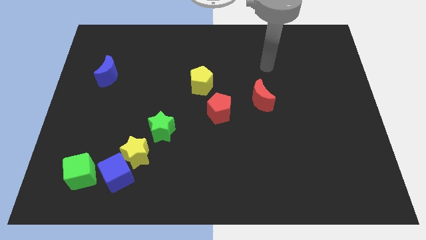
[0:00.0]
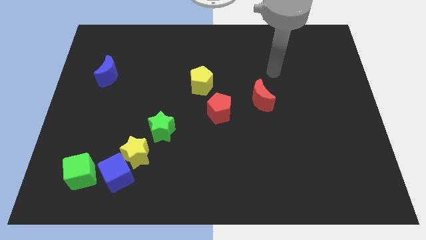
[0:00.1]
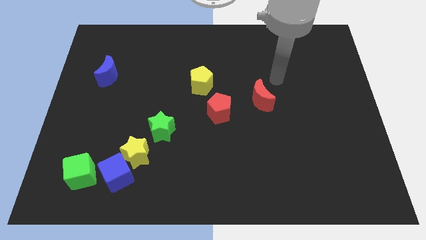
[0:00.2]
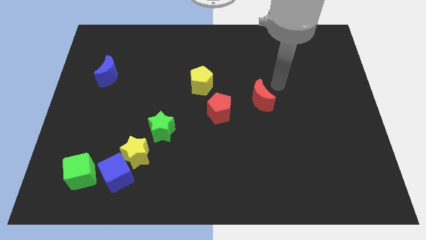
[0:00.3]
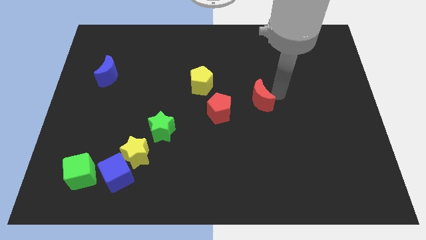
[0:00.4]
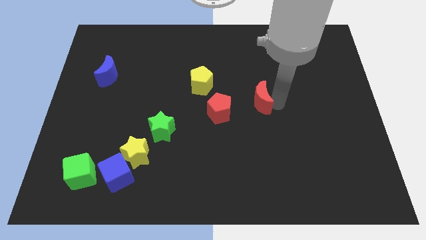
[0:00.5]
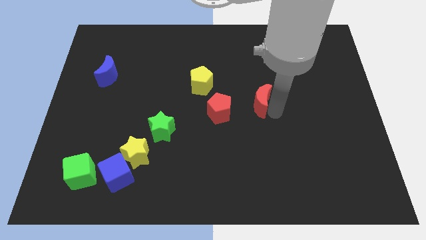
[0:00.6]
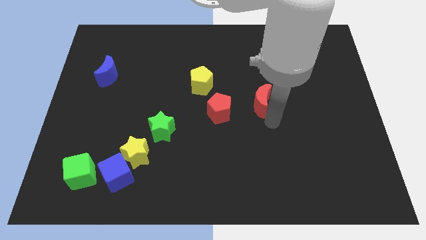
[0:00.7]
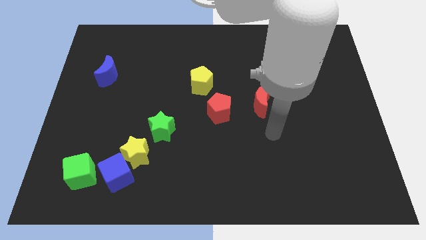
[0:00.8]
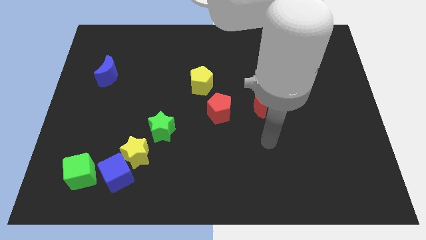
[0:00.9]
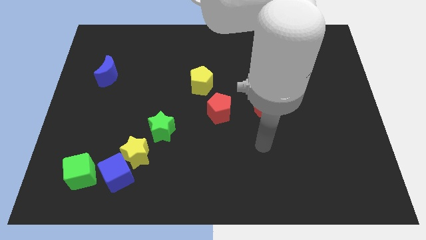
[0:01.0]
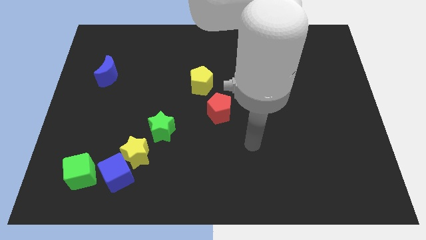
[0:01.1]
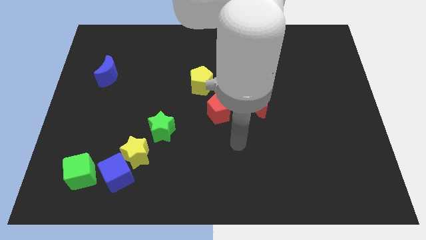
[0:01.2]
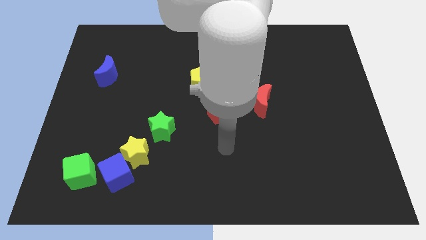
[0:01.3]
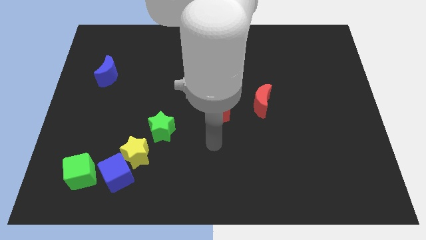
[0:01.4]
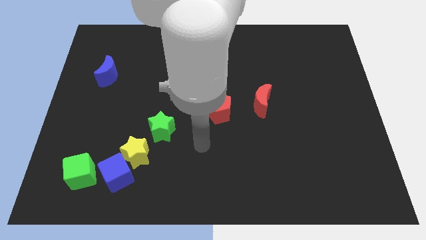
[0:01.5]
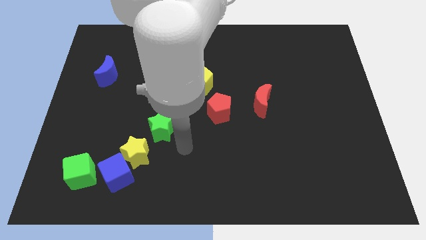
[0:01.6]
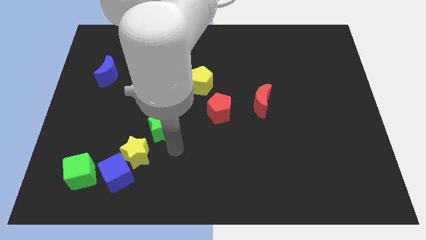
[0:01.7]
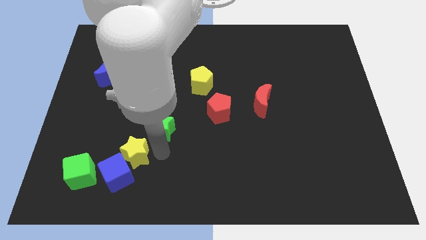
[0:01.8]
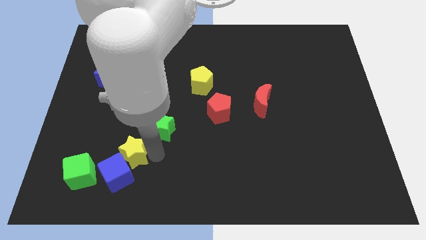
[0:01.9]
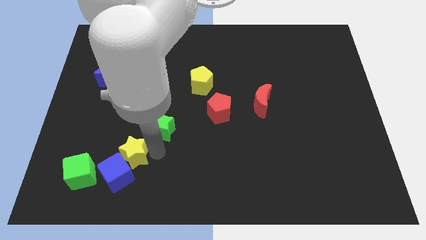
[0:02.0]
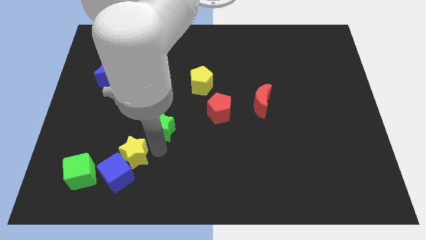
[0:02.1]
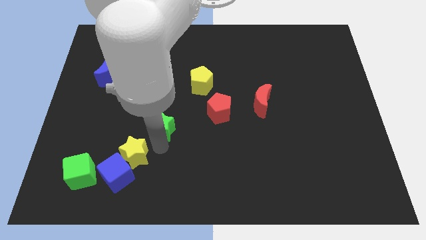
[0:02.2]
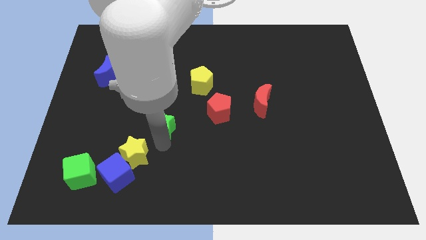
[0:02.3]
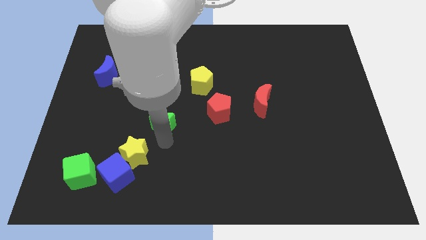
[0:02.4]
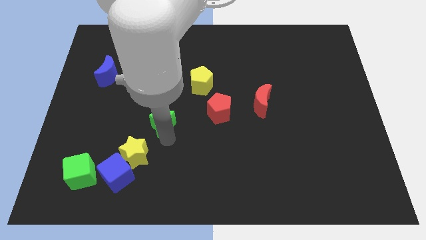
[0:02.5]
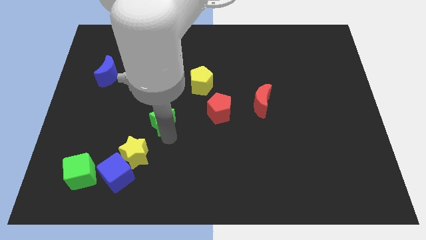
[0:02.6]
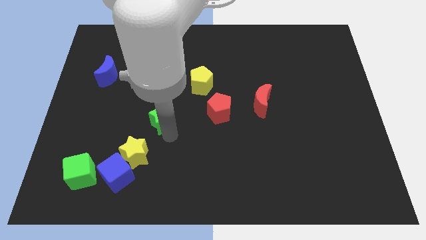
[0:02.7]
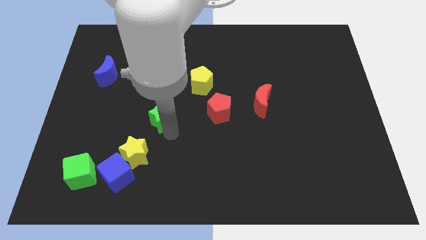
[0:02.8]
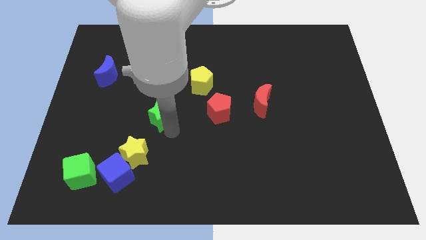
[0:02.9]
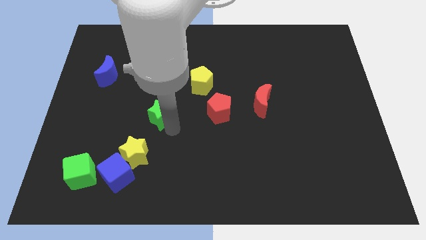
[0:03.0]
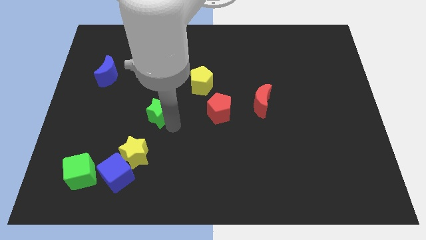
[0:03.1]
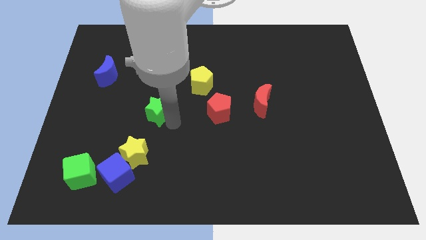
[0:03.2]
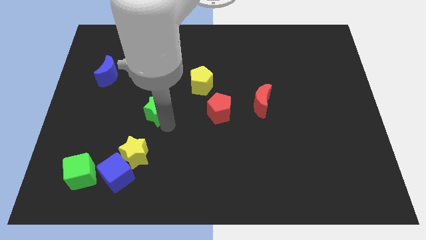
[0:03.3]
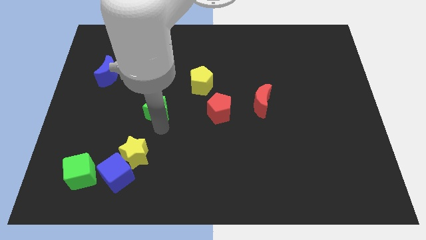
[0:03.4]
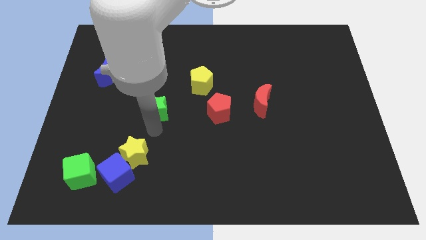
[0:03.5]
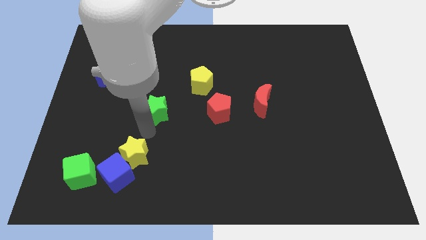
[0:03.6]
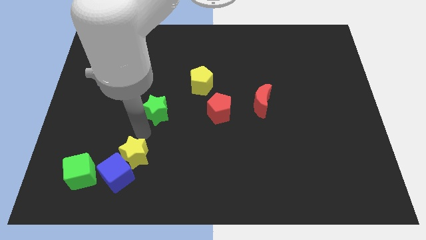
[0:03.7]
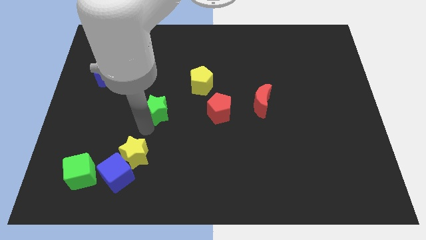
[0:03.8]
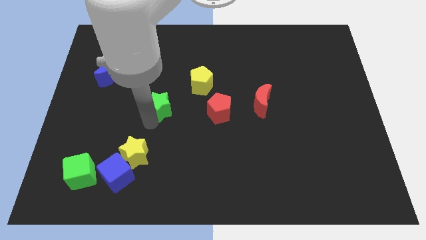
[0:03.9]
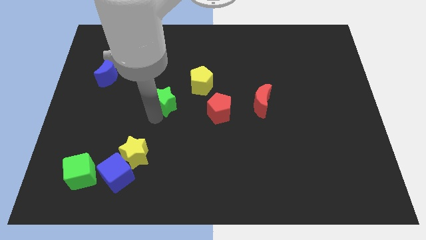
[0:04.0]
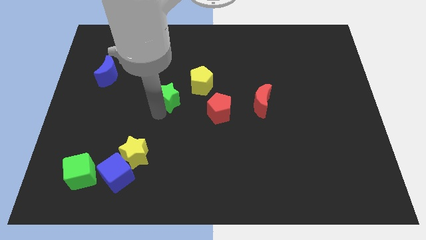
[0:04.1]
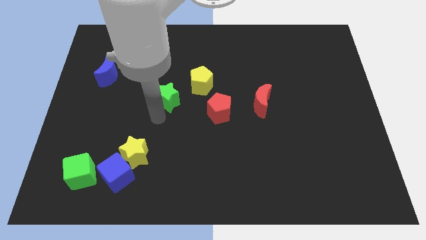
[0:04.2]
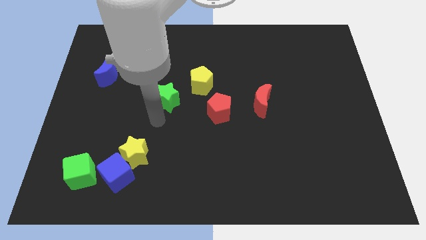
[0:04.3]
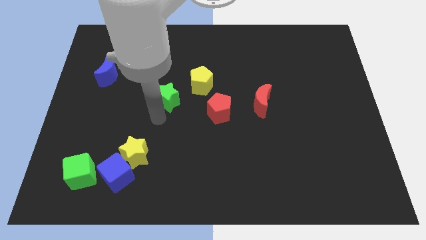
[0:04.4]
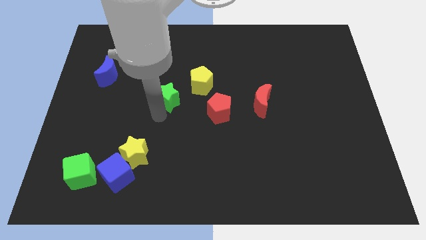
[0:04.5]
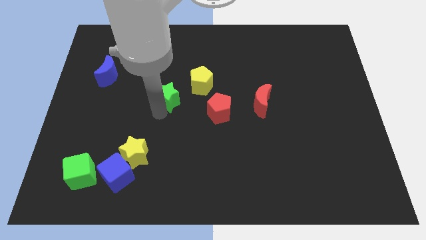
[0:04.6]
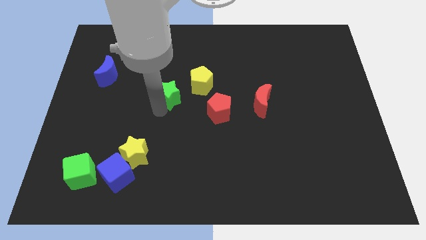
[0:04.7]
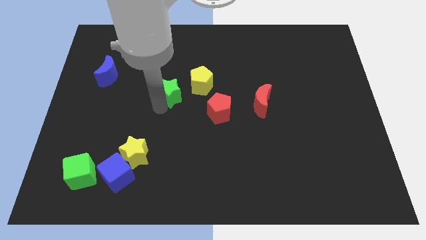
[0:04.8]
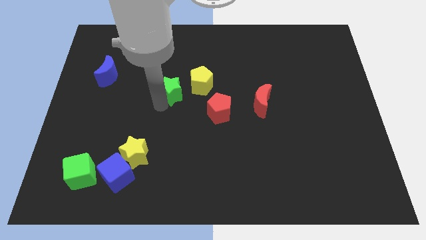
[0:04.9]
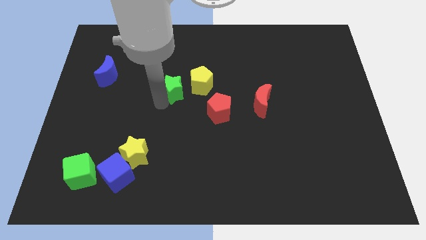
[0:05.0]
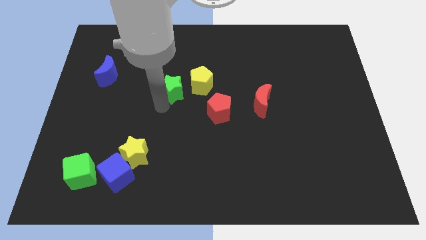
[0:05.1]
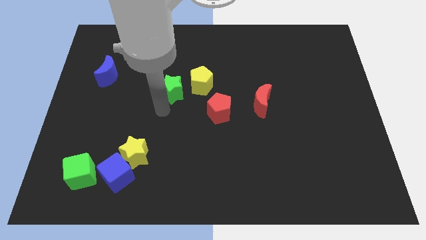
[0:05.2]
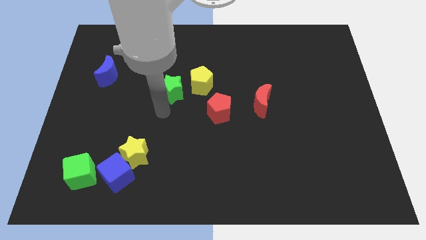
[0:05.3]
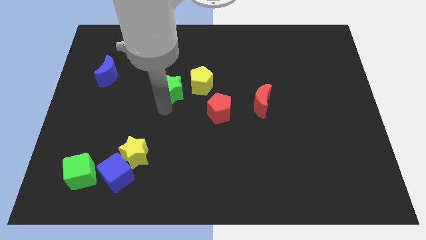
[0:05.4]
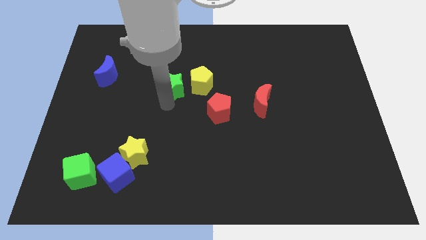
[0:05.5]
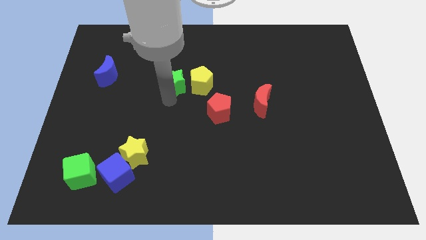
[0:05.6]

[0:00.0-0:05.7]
slide the green star diagonally up and to the left of the yellow pentagon

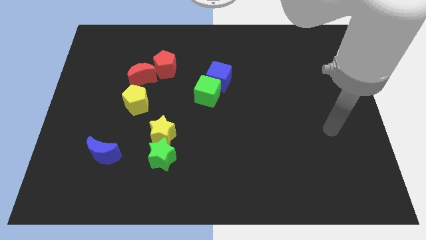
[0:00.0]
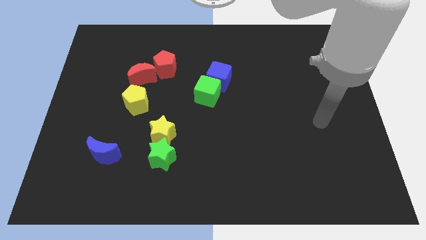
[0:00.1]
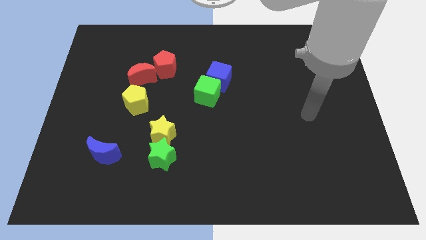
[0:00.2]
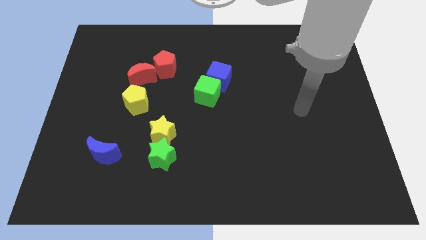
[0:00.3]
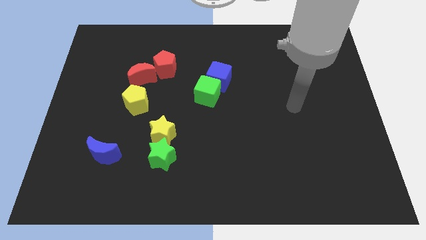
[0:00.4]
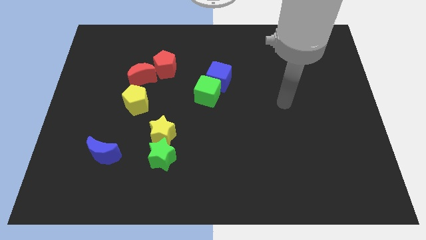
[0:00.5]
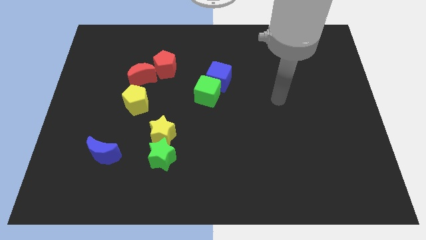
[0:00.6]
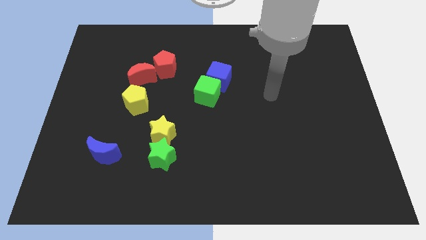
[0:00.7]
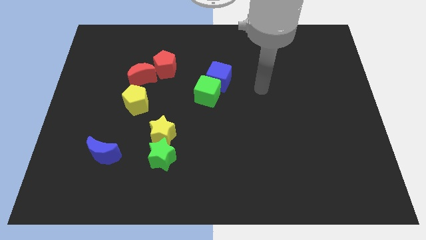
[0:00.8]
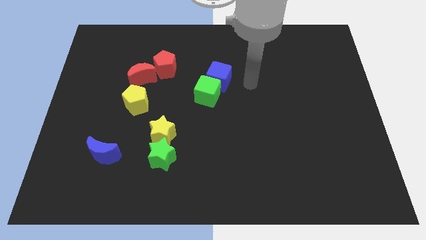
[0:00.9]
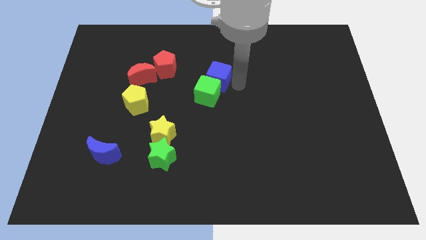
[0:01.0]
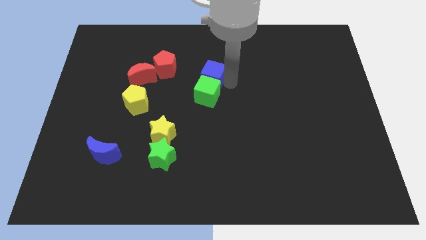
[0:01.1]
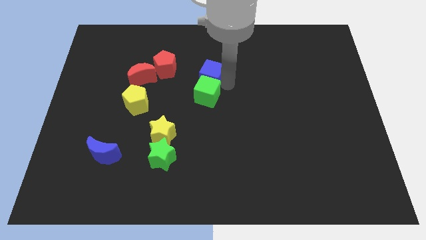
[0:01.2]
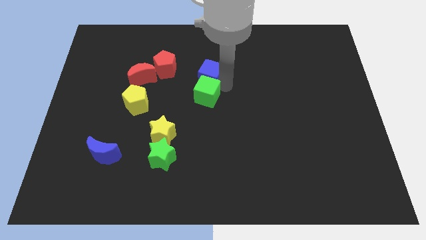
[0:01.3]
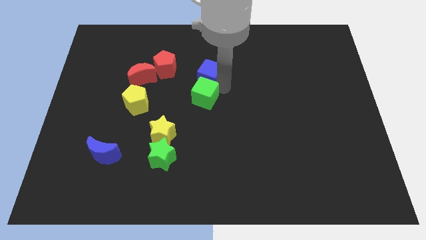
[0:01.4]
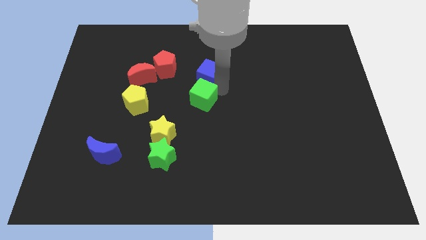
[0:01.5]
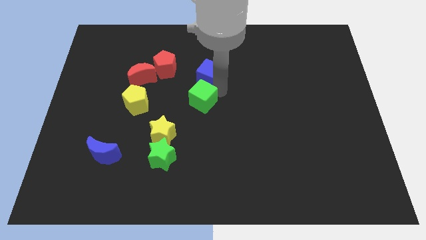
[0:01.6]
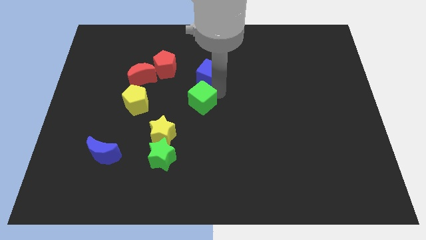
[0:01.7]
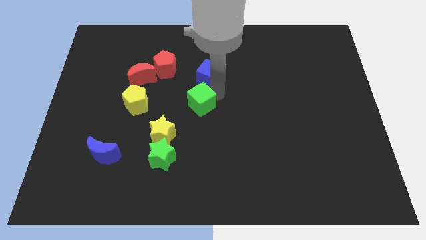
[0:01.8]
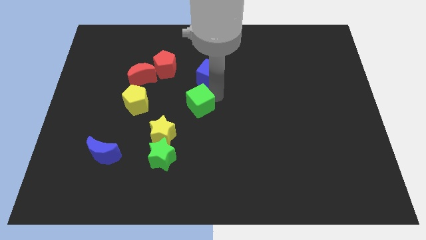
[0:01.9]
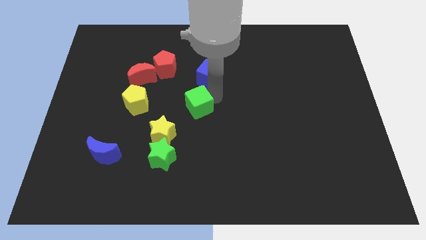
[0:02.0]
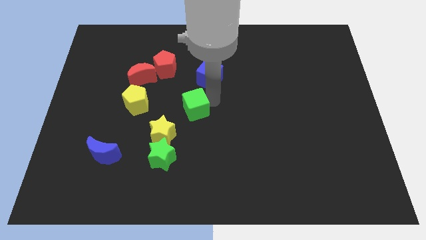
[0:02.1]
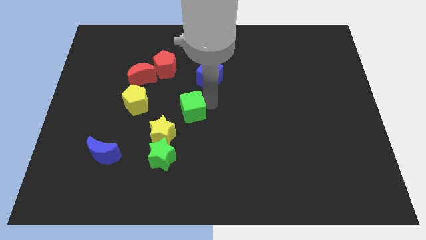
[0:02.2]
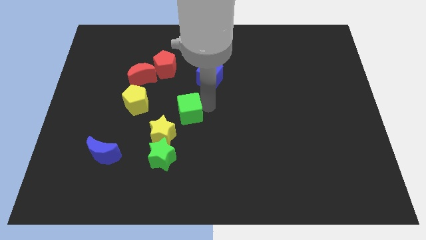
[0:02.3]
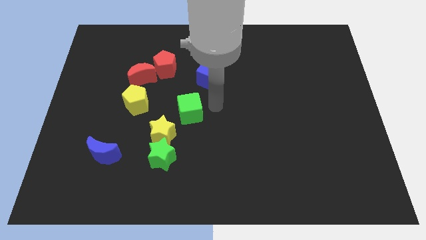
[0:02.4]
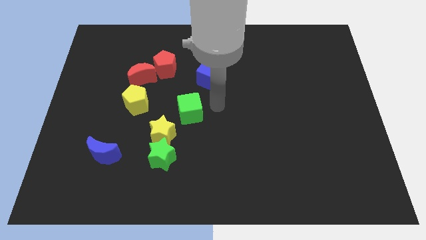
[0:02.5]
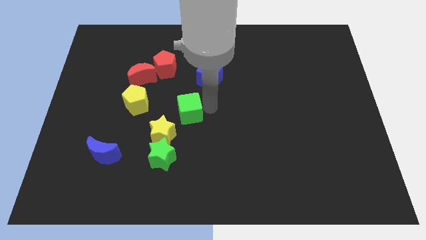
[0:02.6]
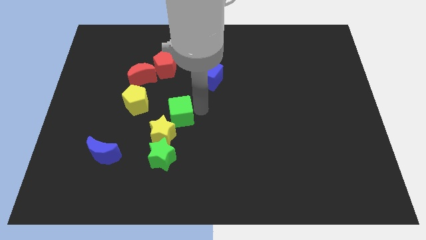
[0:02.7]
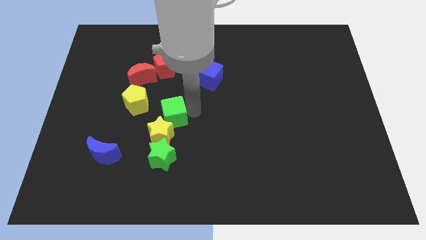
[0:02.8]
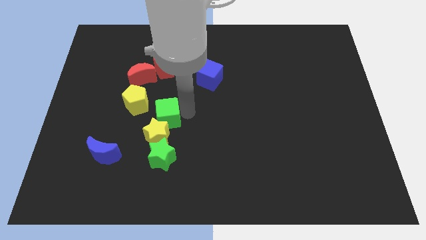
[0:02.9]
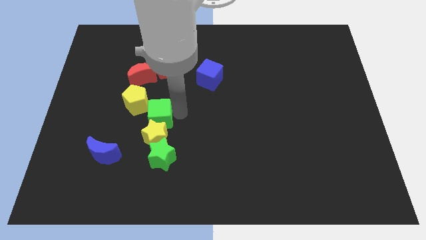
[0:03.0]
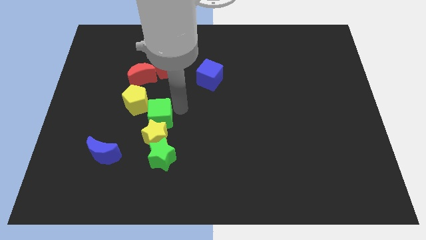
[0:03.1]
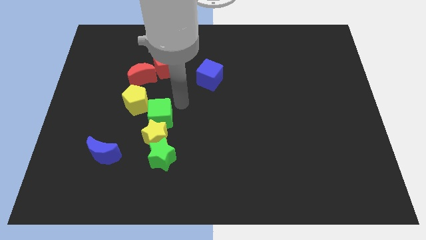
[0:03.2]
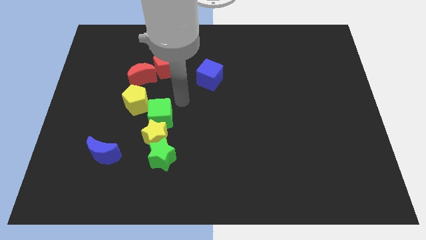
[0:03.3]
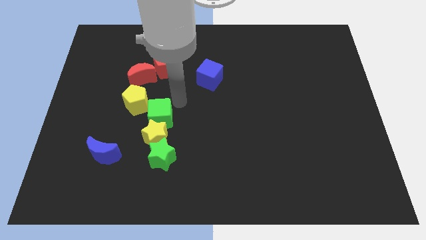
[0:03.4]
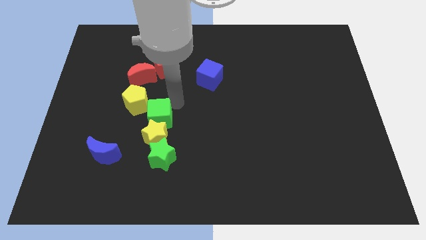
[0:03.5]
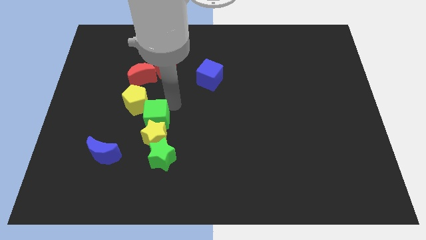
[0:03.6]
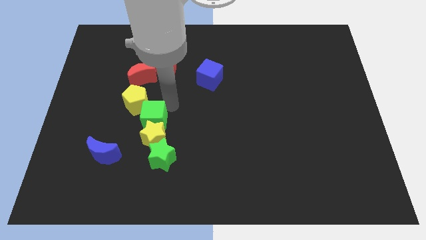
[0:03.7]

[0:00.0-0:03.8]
move the green cube to the bottom side of the yellow pentagon
